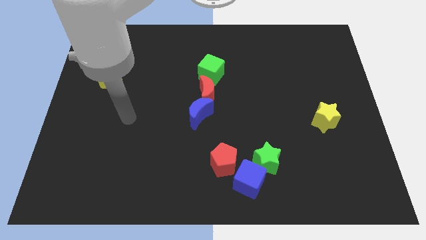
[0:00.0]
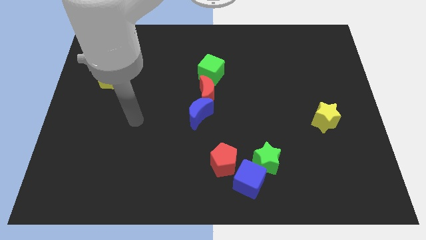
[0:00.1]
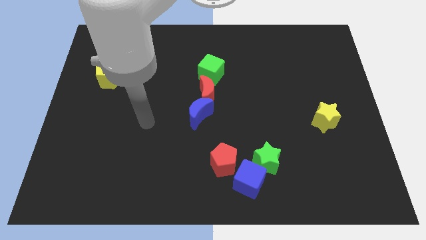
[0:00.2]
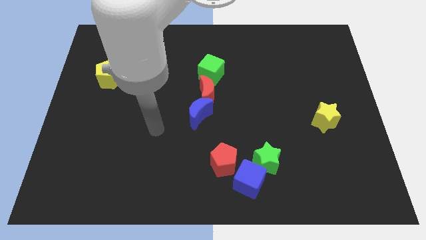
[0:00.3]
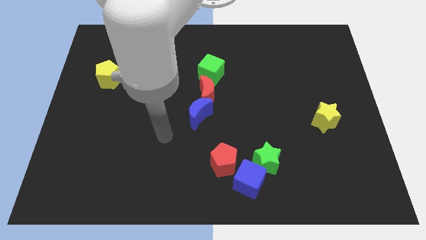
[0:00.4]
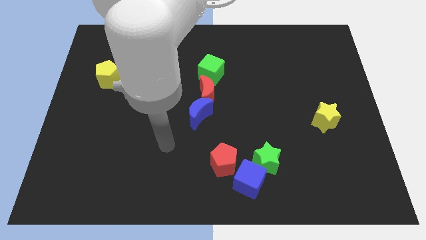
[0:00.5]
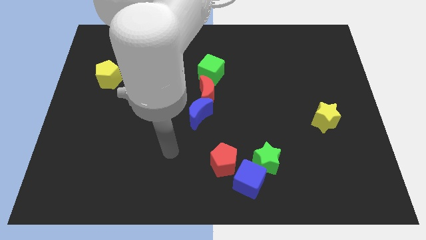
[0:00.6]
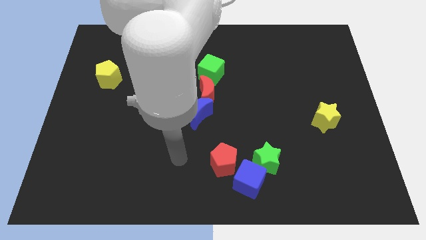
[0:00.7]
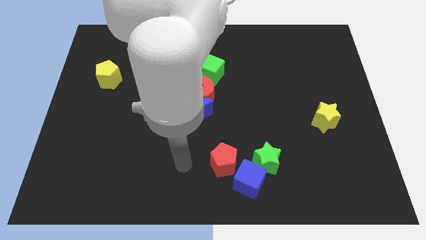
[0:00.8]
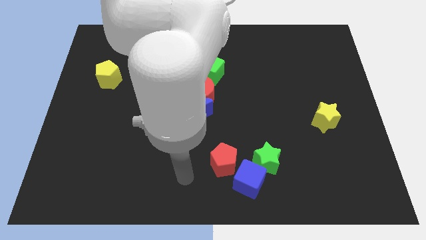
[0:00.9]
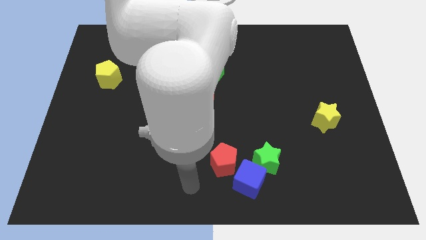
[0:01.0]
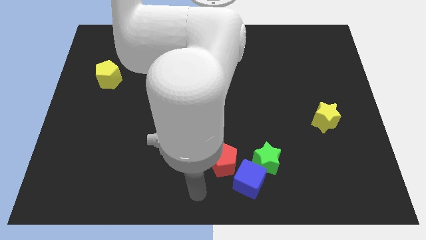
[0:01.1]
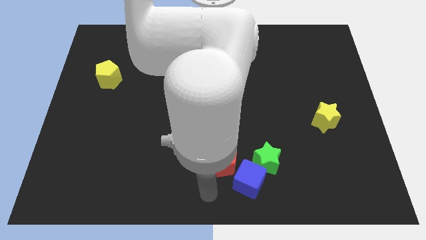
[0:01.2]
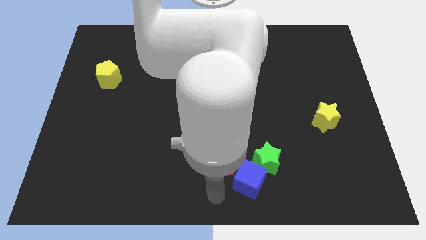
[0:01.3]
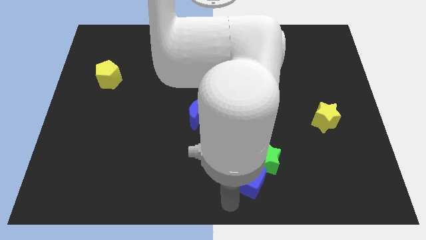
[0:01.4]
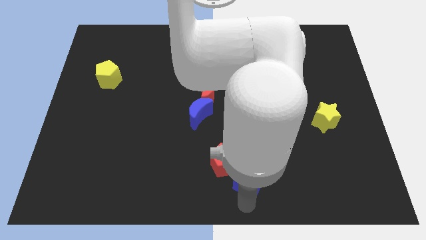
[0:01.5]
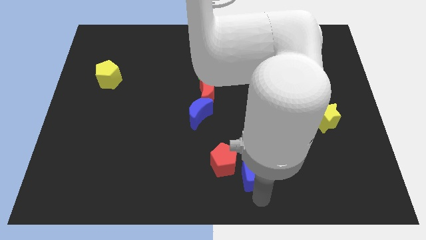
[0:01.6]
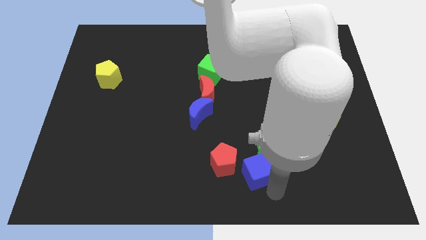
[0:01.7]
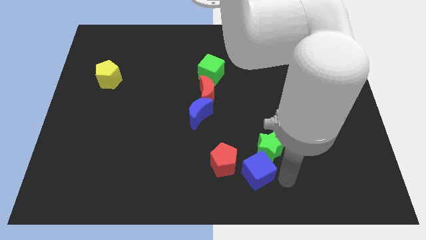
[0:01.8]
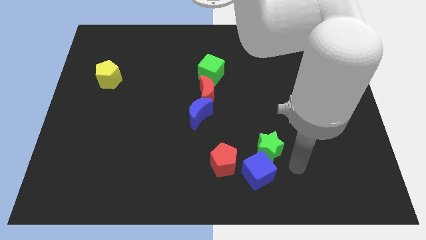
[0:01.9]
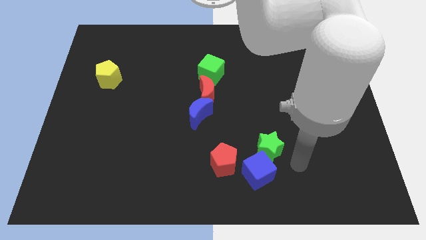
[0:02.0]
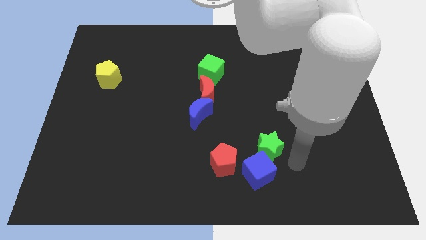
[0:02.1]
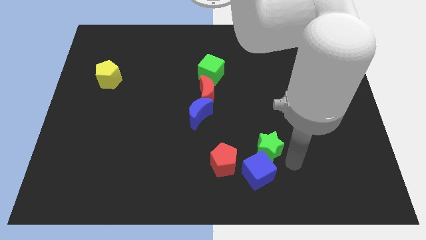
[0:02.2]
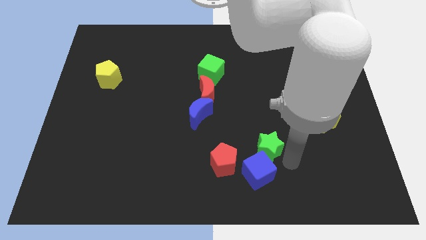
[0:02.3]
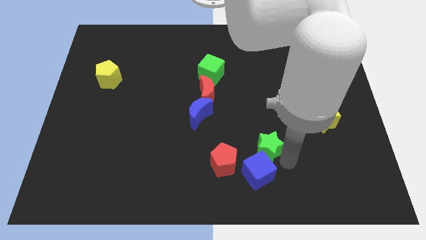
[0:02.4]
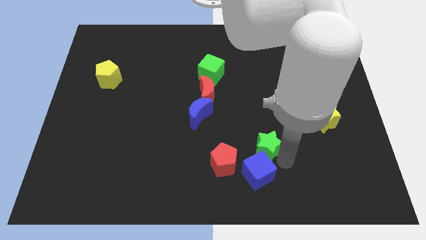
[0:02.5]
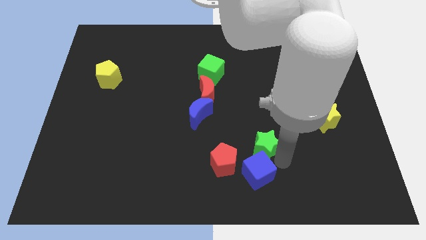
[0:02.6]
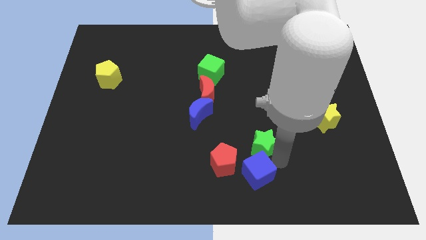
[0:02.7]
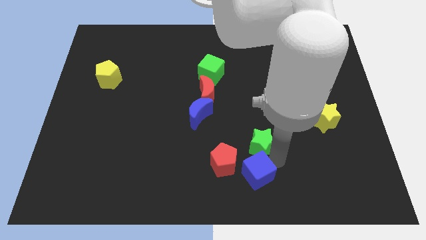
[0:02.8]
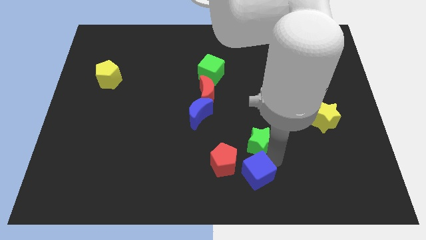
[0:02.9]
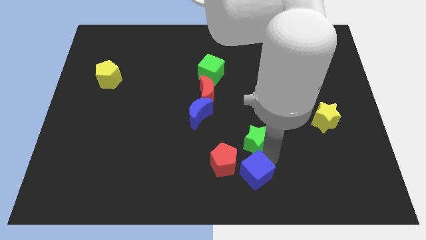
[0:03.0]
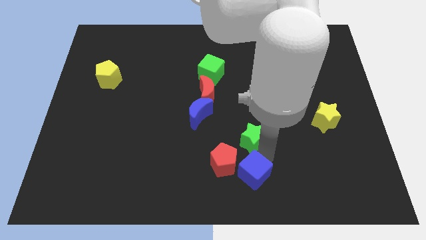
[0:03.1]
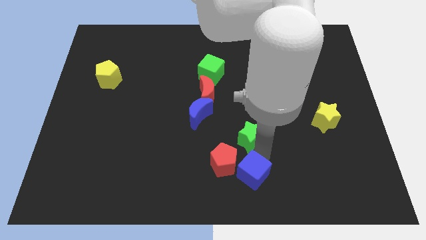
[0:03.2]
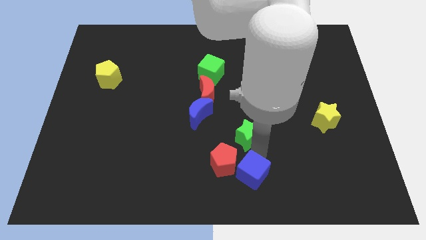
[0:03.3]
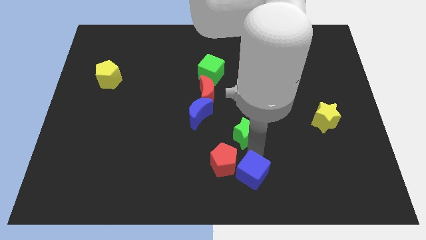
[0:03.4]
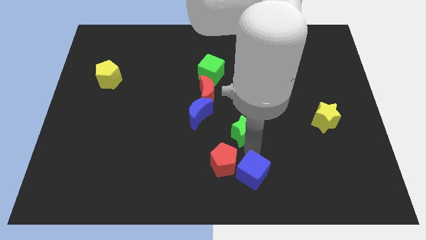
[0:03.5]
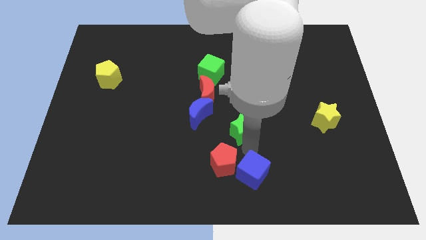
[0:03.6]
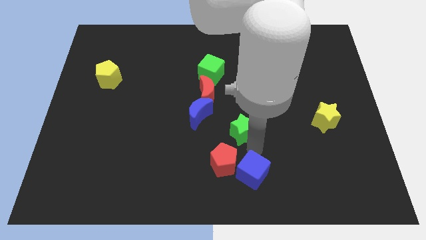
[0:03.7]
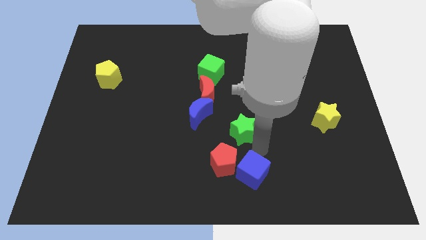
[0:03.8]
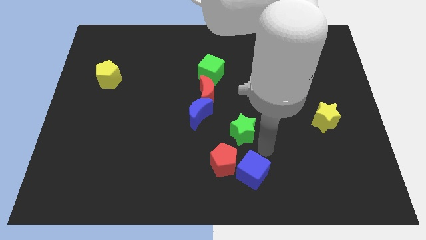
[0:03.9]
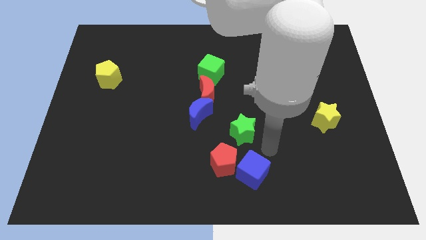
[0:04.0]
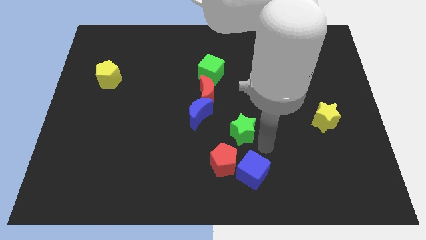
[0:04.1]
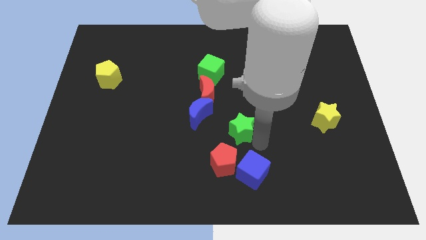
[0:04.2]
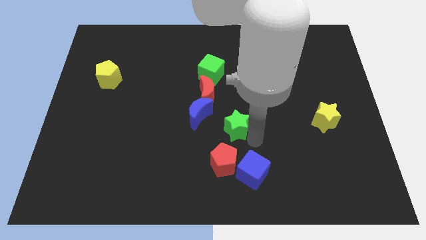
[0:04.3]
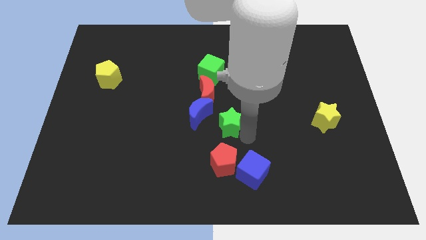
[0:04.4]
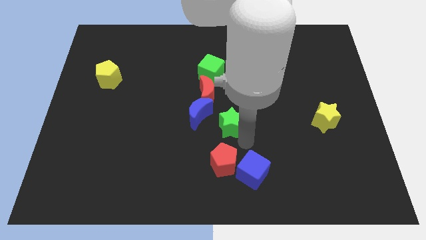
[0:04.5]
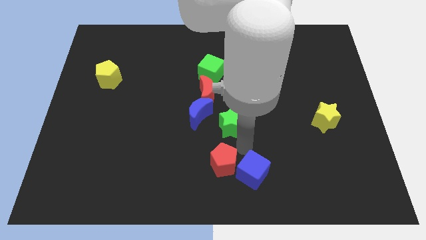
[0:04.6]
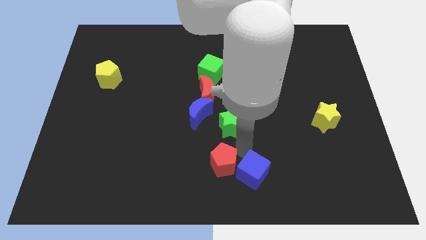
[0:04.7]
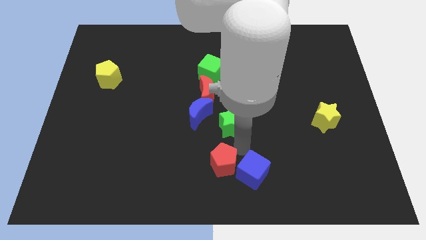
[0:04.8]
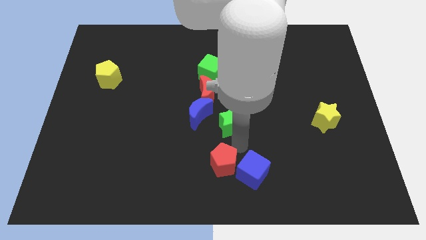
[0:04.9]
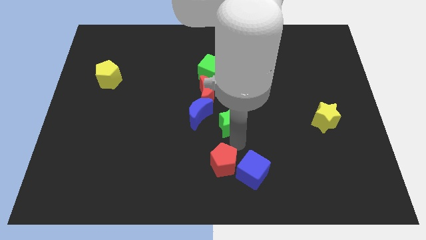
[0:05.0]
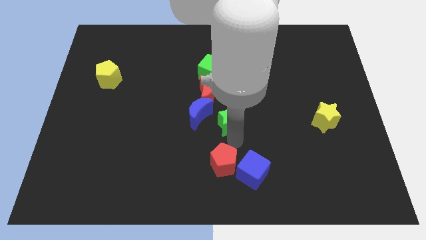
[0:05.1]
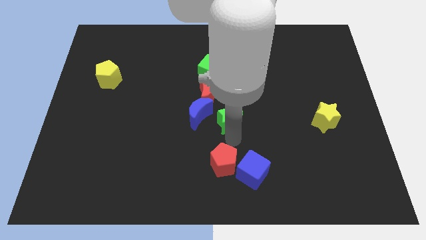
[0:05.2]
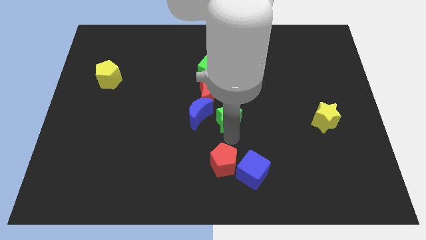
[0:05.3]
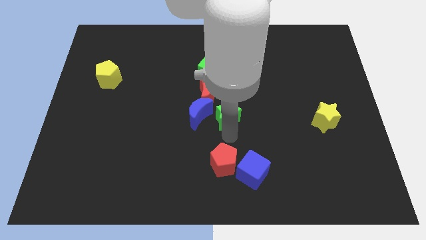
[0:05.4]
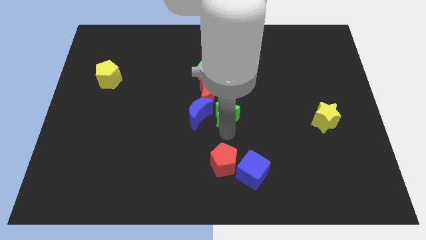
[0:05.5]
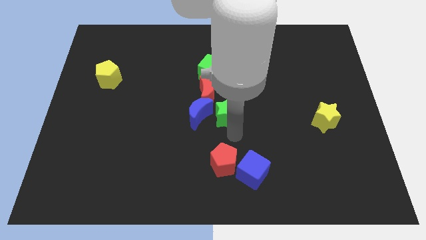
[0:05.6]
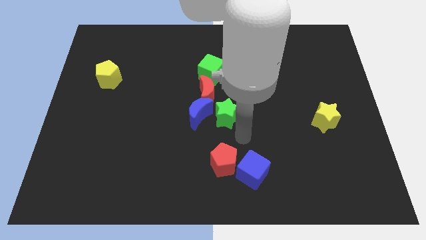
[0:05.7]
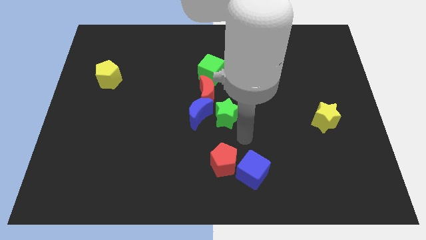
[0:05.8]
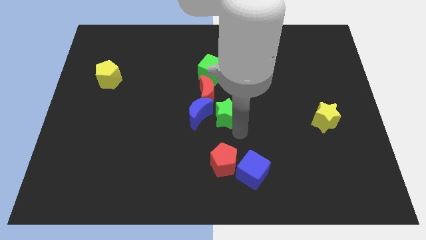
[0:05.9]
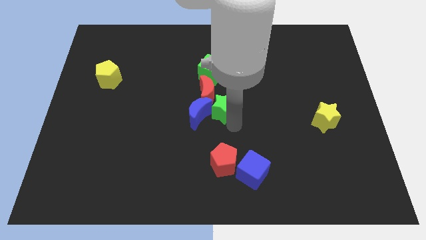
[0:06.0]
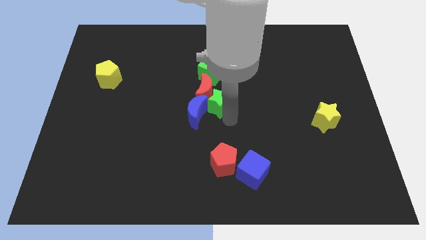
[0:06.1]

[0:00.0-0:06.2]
put the green star next to the red moon

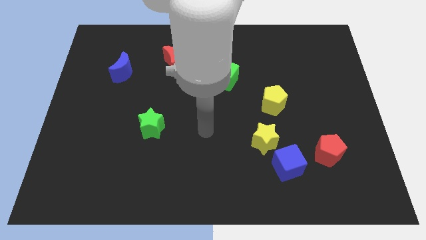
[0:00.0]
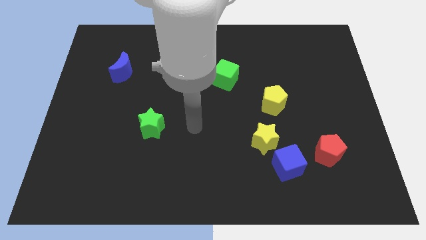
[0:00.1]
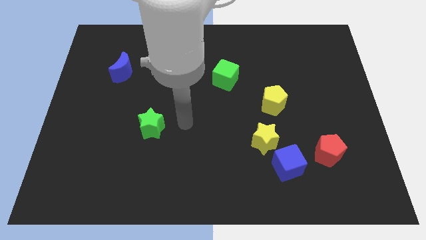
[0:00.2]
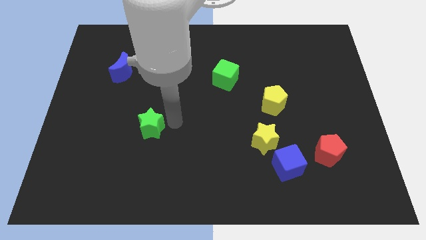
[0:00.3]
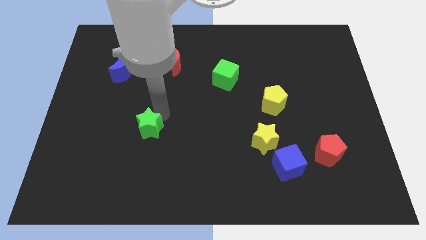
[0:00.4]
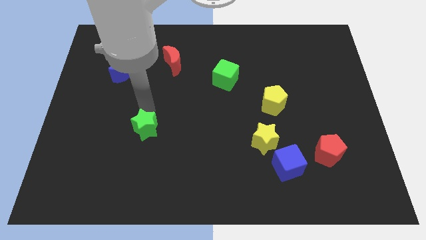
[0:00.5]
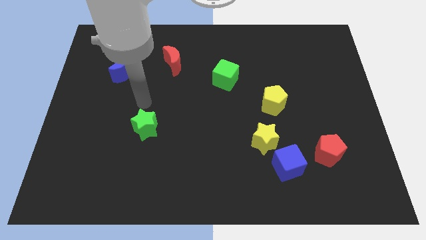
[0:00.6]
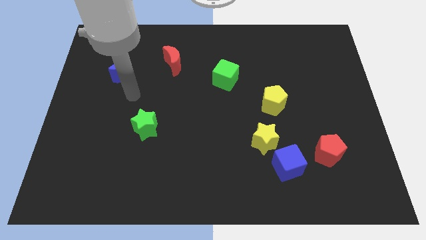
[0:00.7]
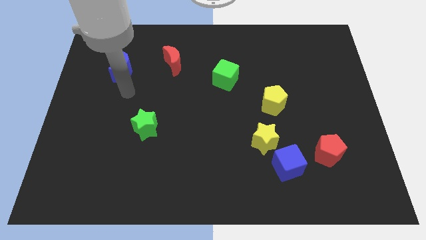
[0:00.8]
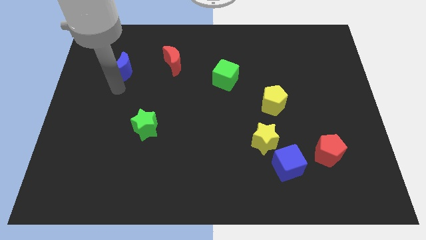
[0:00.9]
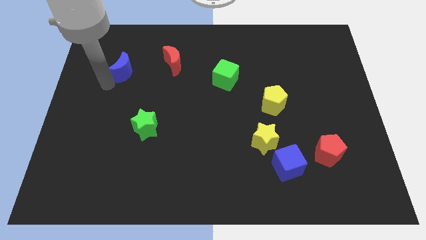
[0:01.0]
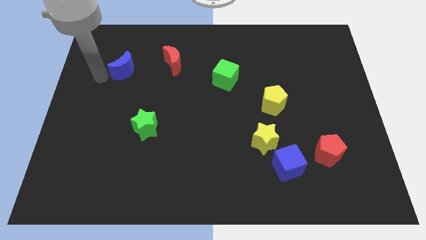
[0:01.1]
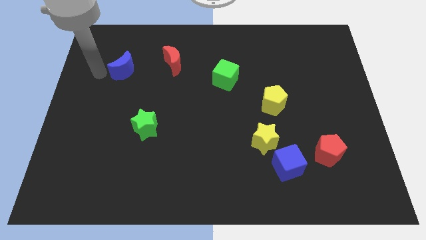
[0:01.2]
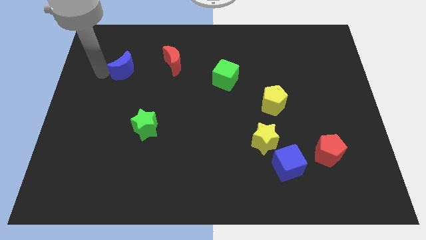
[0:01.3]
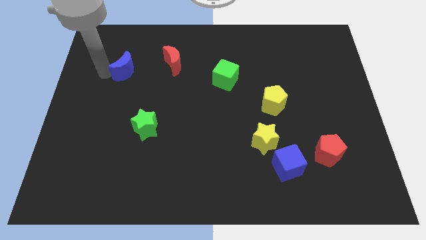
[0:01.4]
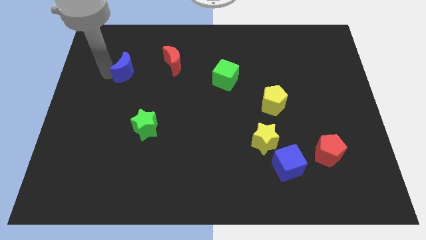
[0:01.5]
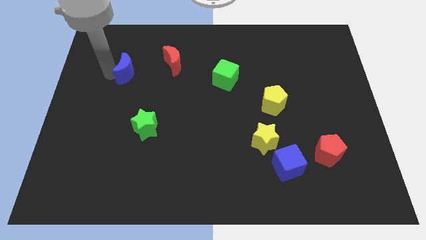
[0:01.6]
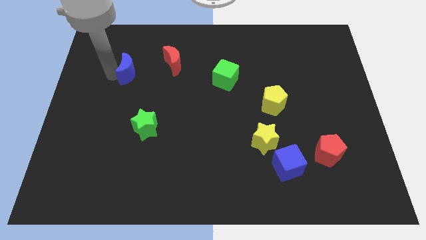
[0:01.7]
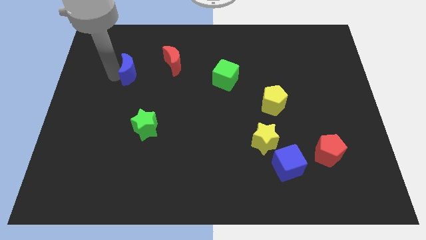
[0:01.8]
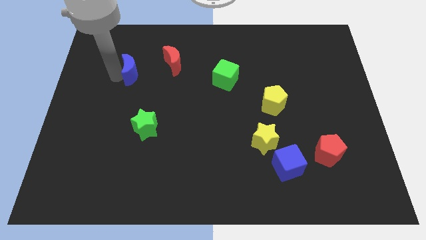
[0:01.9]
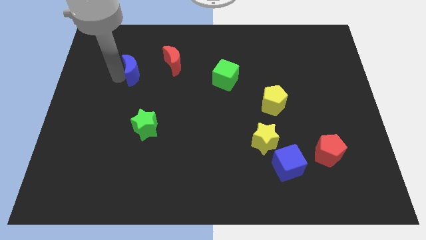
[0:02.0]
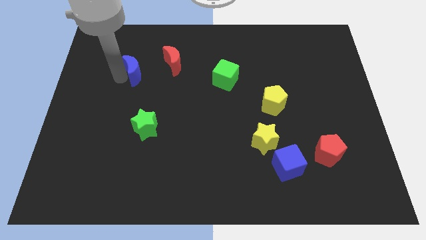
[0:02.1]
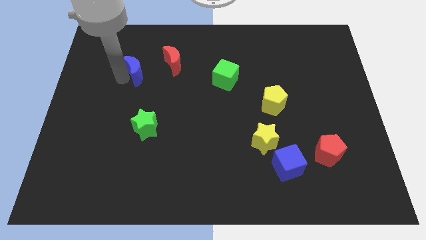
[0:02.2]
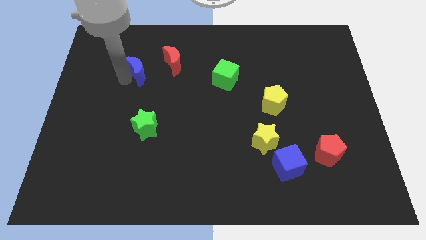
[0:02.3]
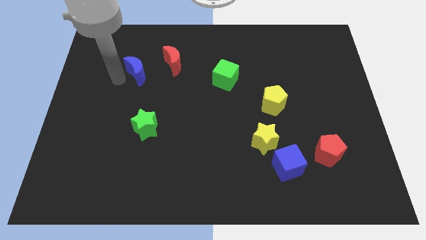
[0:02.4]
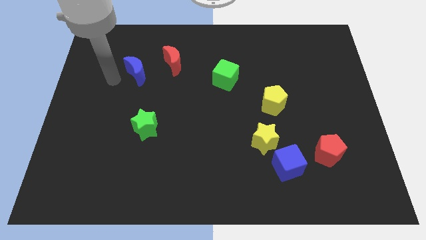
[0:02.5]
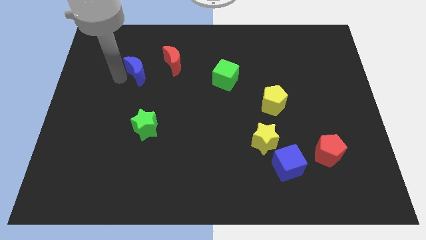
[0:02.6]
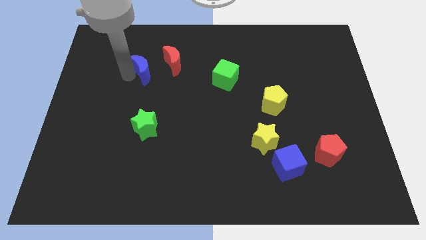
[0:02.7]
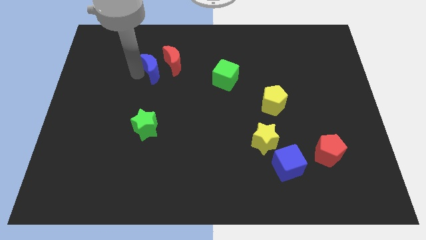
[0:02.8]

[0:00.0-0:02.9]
slide the blue moon next to the red moon
